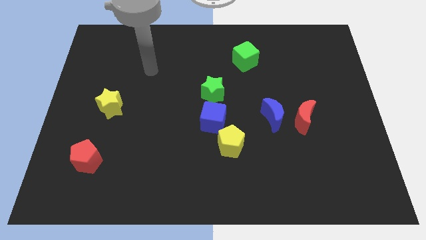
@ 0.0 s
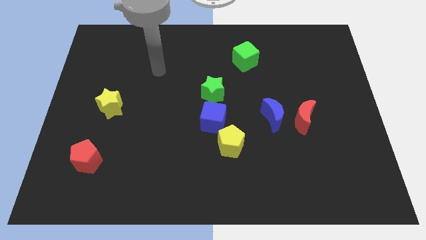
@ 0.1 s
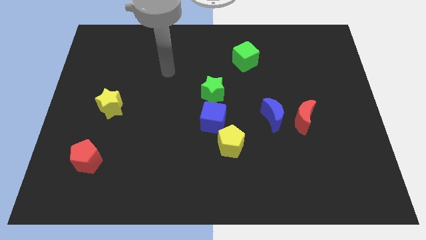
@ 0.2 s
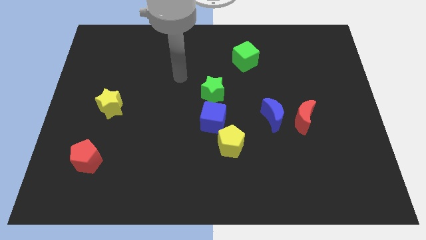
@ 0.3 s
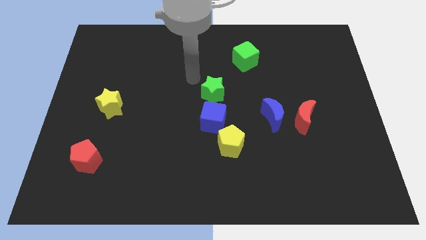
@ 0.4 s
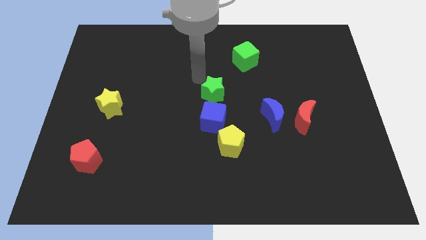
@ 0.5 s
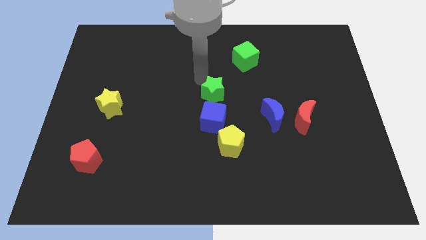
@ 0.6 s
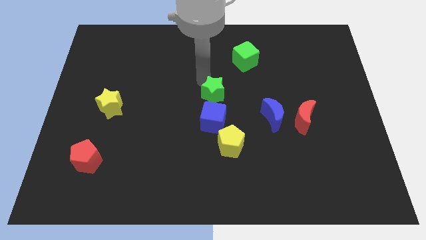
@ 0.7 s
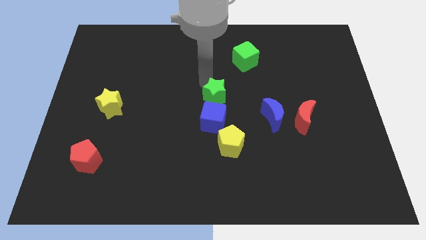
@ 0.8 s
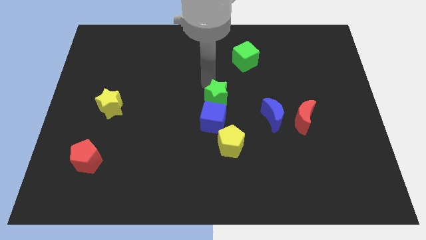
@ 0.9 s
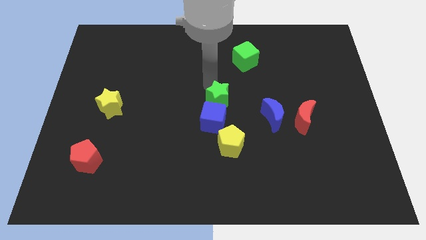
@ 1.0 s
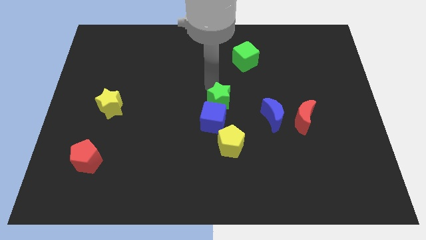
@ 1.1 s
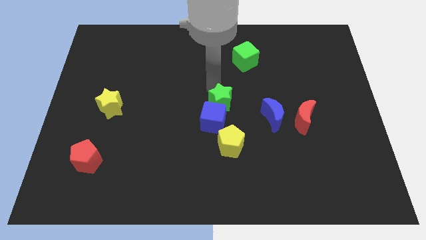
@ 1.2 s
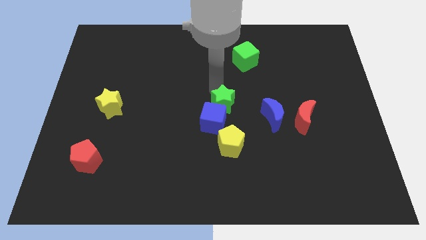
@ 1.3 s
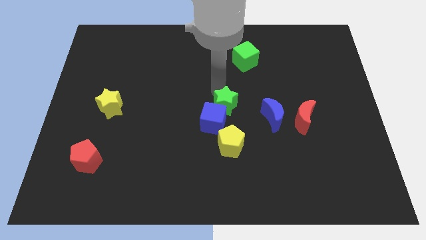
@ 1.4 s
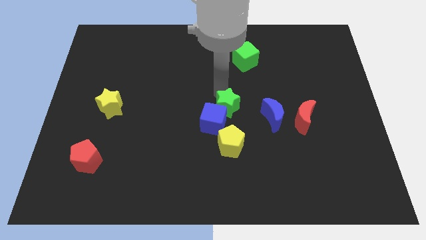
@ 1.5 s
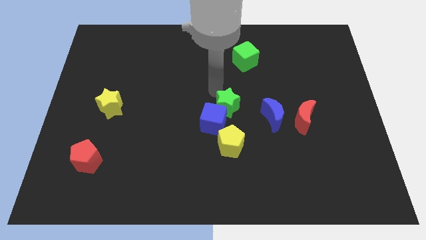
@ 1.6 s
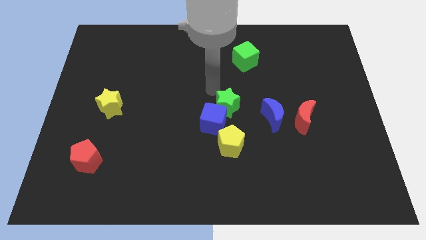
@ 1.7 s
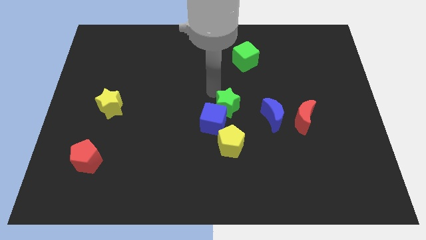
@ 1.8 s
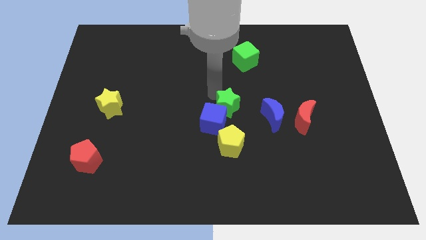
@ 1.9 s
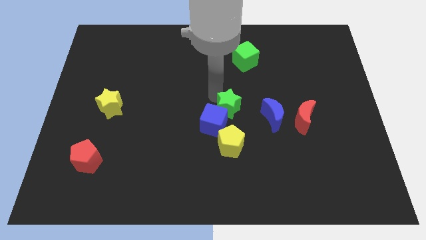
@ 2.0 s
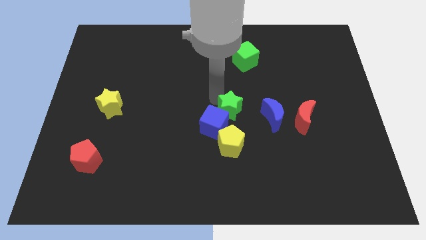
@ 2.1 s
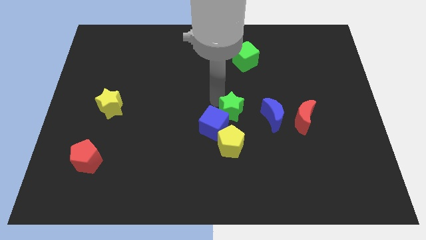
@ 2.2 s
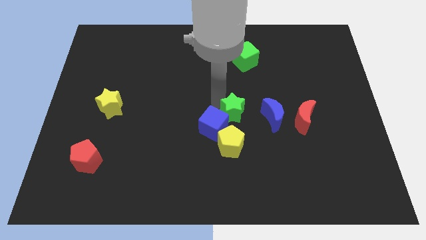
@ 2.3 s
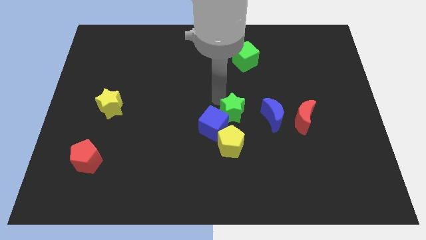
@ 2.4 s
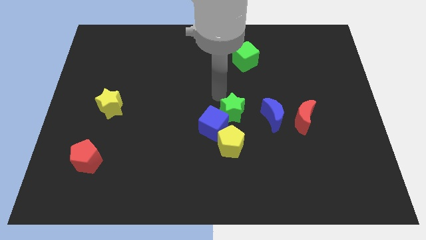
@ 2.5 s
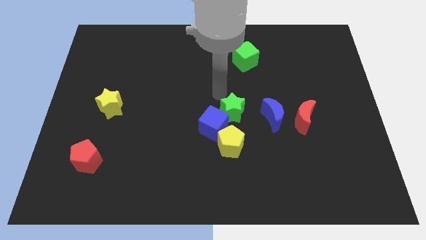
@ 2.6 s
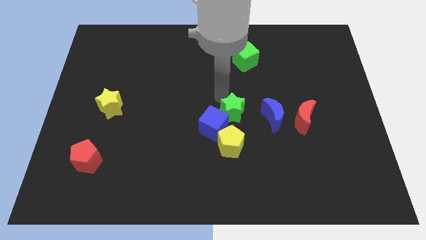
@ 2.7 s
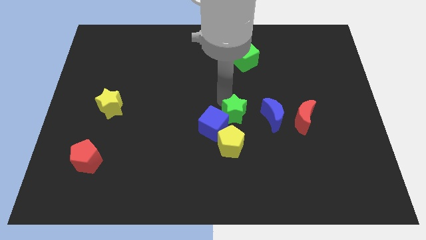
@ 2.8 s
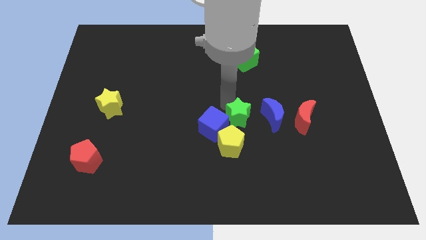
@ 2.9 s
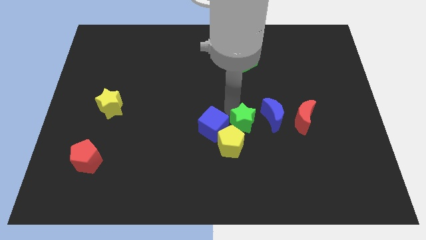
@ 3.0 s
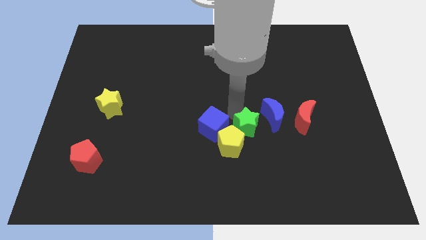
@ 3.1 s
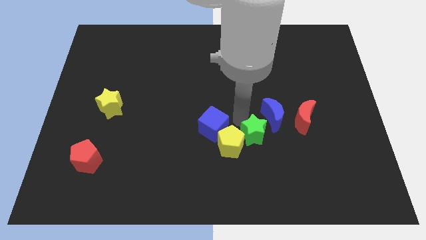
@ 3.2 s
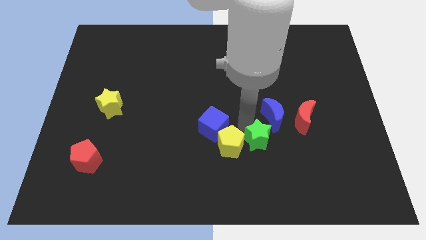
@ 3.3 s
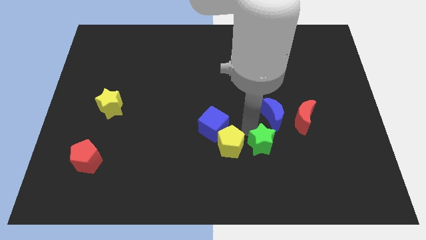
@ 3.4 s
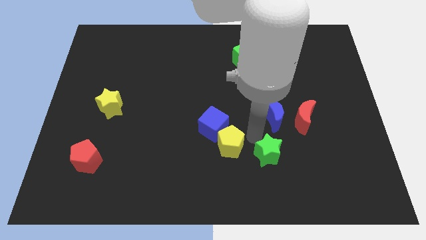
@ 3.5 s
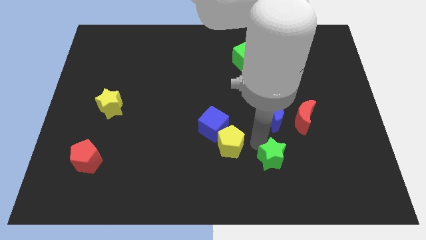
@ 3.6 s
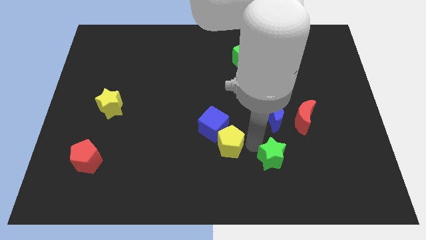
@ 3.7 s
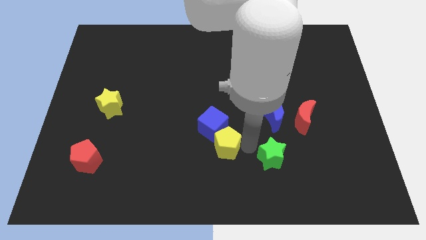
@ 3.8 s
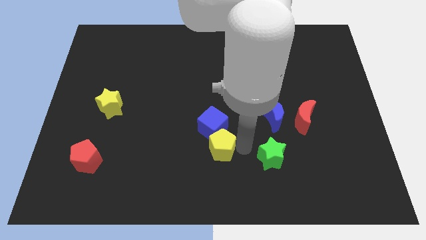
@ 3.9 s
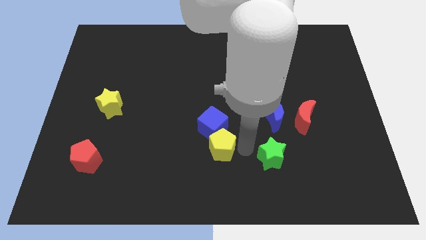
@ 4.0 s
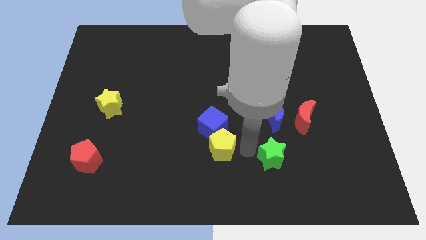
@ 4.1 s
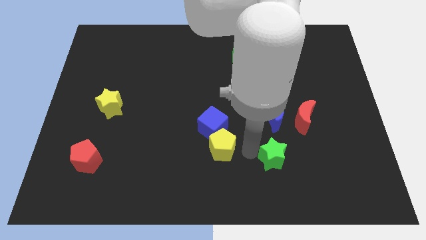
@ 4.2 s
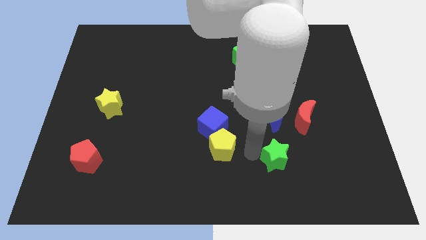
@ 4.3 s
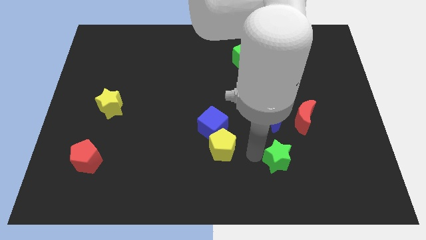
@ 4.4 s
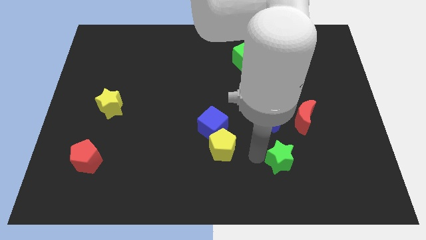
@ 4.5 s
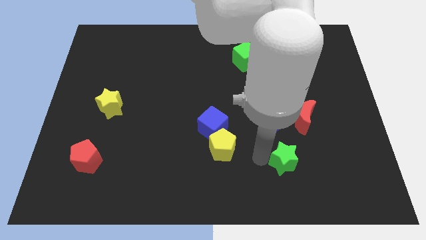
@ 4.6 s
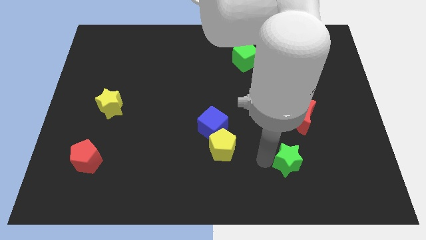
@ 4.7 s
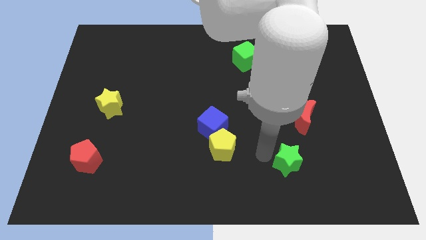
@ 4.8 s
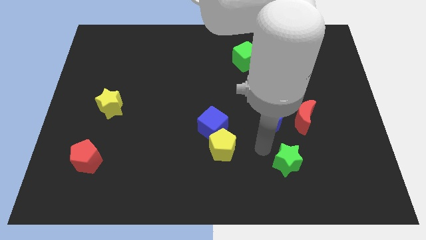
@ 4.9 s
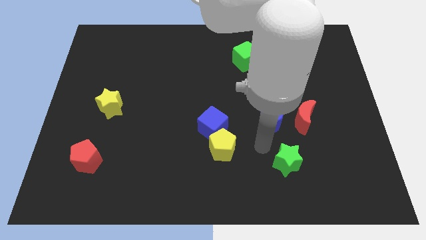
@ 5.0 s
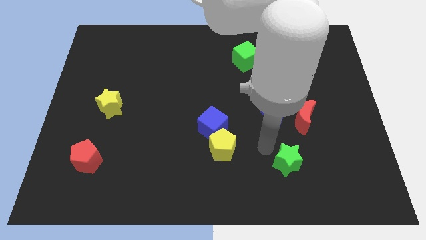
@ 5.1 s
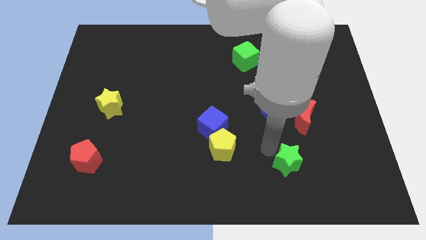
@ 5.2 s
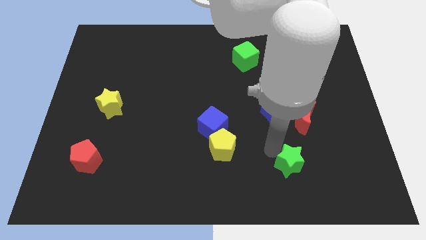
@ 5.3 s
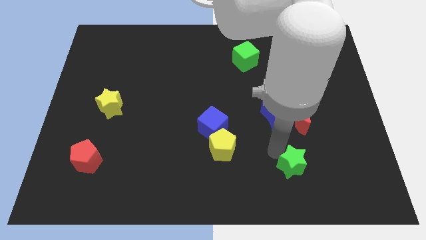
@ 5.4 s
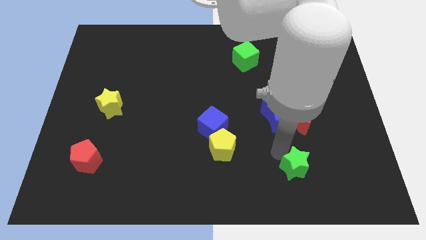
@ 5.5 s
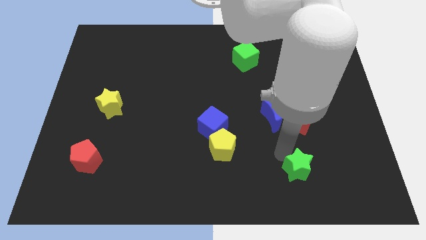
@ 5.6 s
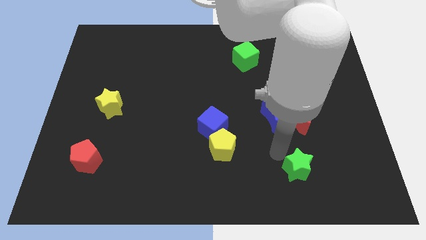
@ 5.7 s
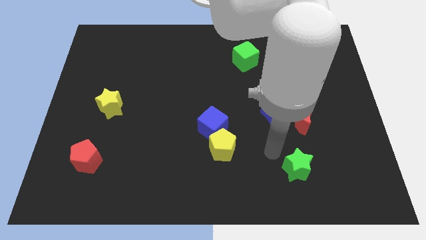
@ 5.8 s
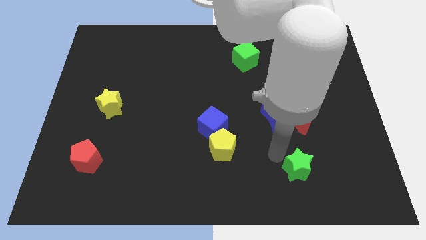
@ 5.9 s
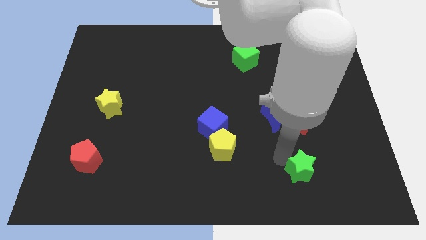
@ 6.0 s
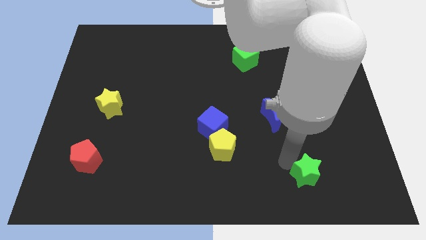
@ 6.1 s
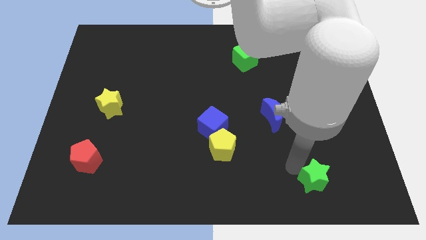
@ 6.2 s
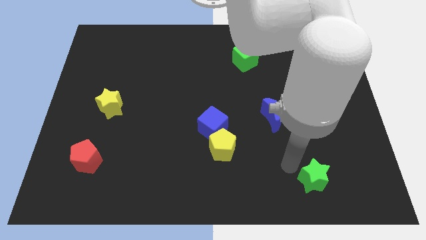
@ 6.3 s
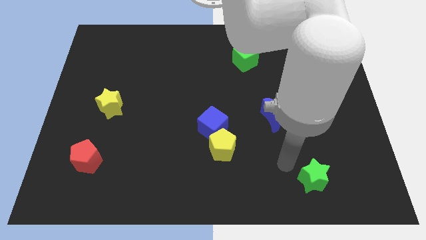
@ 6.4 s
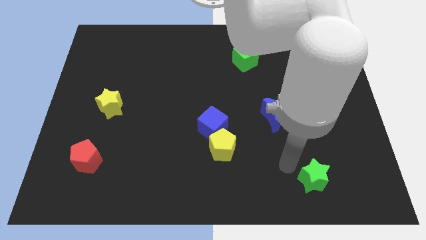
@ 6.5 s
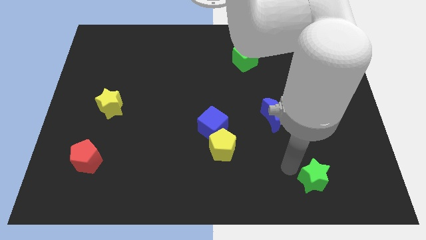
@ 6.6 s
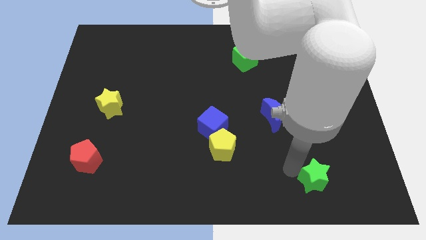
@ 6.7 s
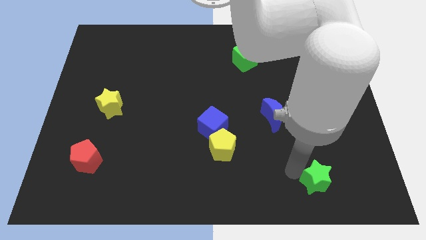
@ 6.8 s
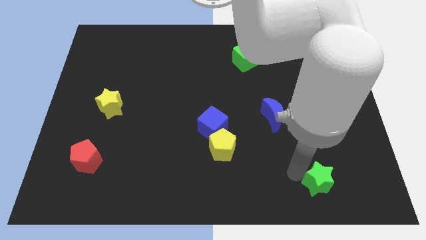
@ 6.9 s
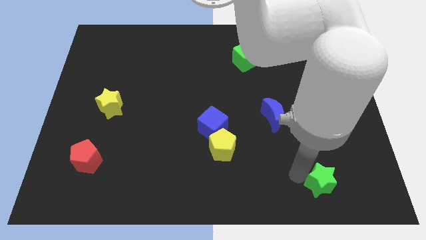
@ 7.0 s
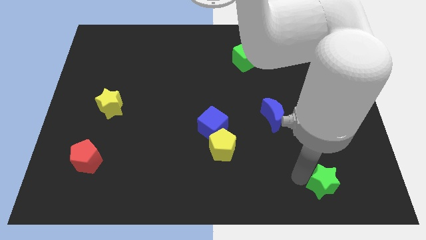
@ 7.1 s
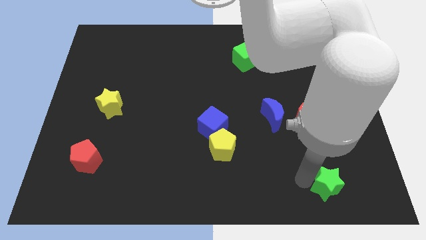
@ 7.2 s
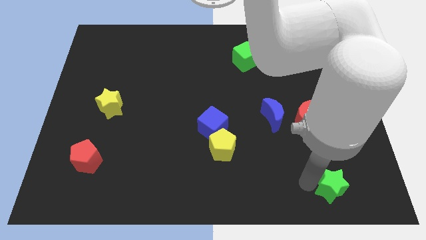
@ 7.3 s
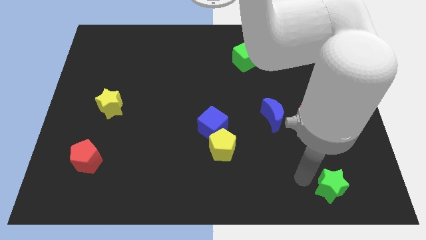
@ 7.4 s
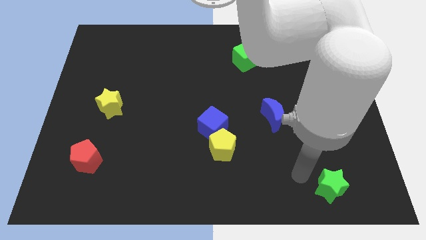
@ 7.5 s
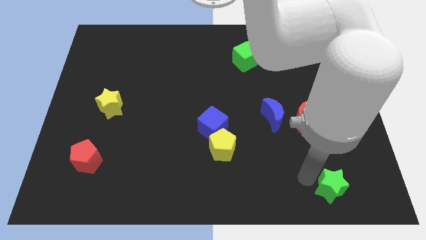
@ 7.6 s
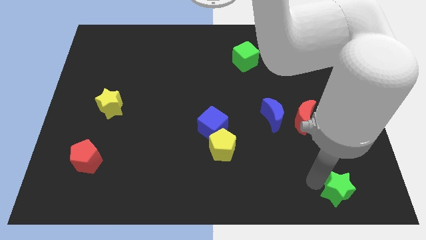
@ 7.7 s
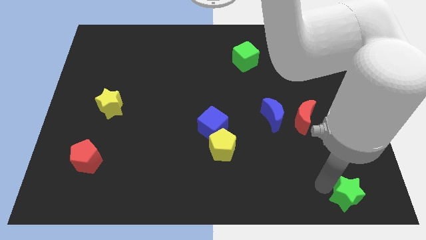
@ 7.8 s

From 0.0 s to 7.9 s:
move the green star to the bottom right
